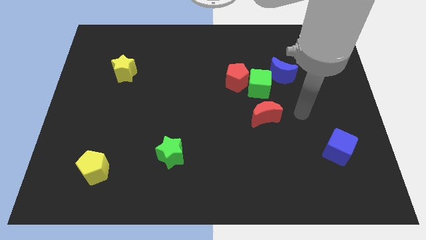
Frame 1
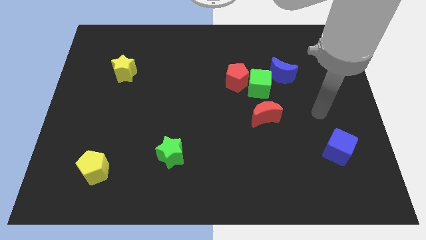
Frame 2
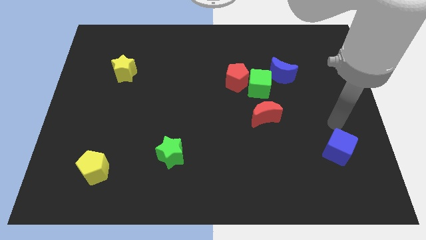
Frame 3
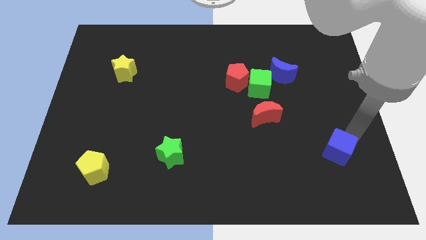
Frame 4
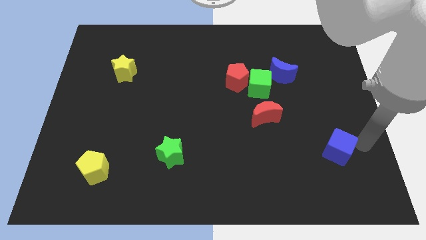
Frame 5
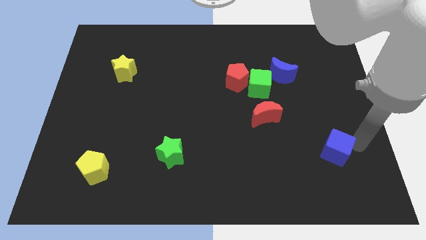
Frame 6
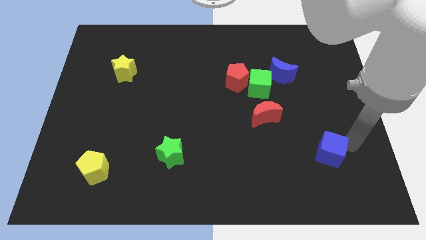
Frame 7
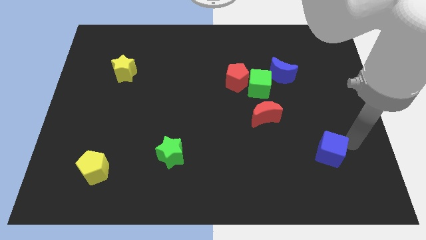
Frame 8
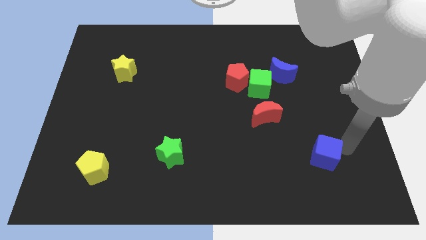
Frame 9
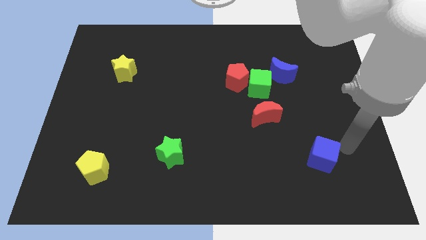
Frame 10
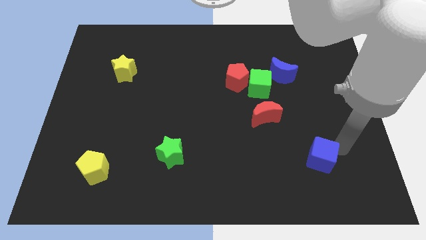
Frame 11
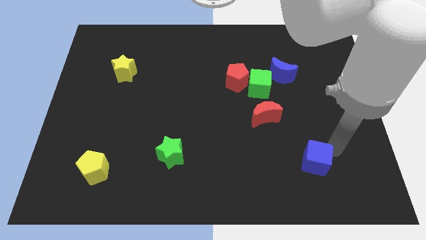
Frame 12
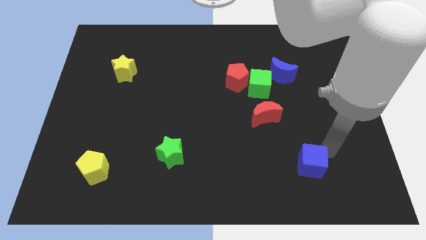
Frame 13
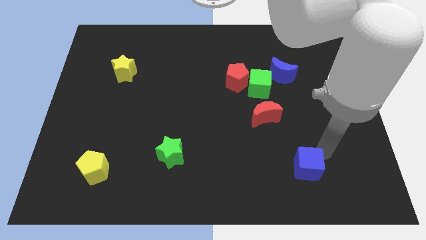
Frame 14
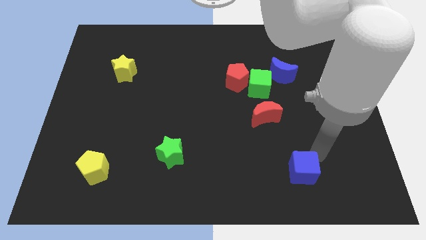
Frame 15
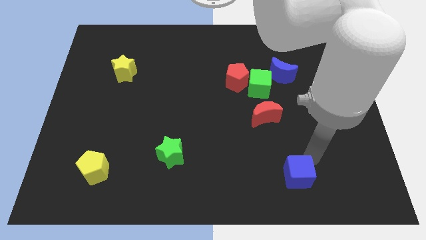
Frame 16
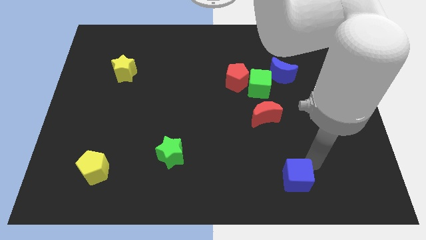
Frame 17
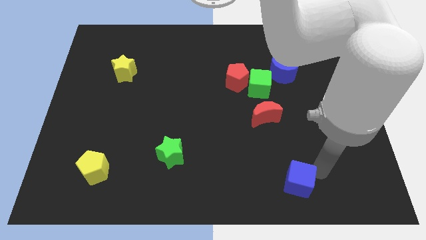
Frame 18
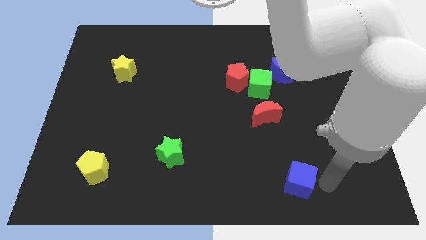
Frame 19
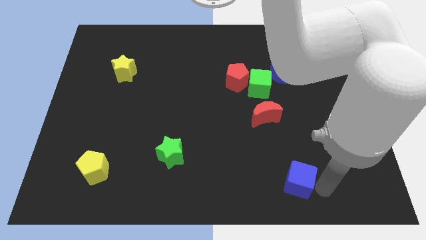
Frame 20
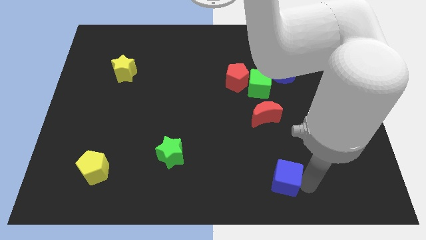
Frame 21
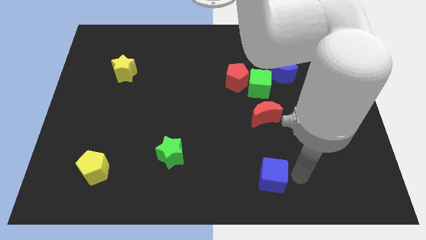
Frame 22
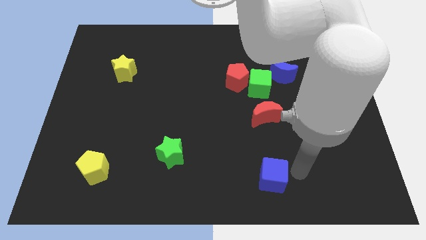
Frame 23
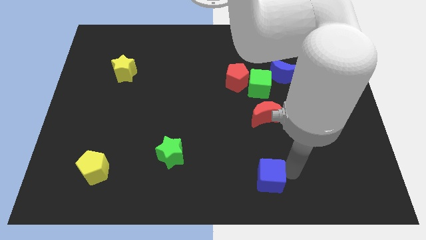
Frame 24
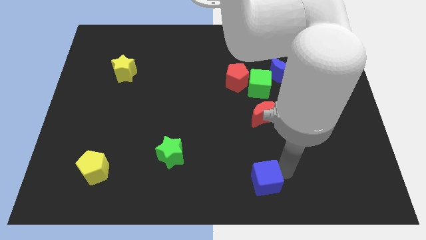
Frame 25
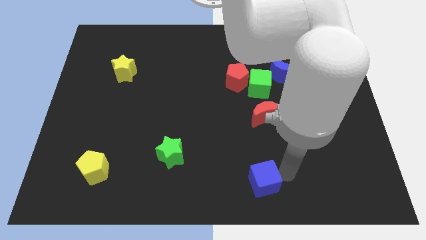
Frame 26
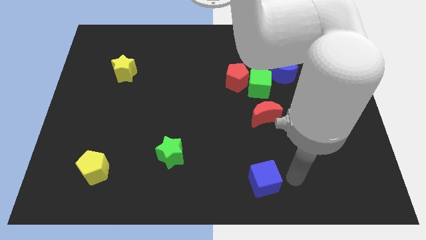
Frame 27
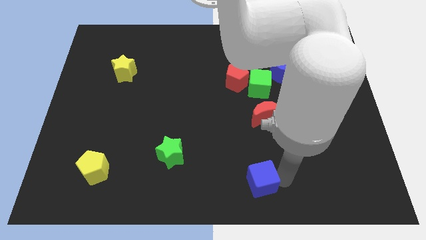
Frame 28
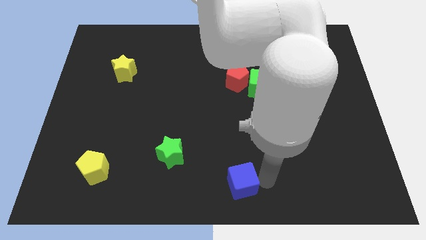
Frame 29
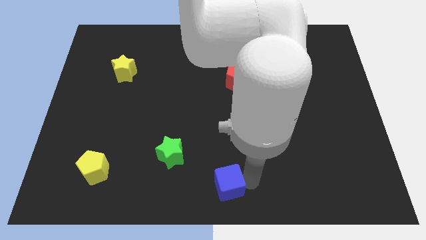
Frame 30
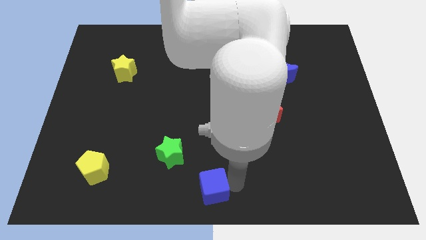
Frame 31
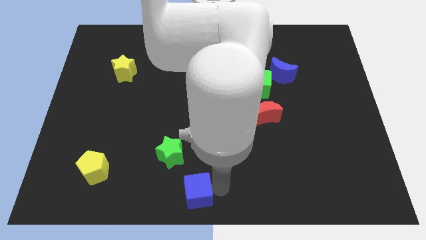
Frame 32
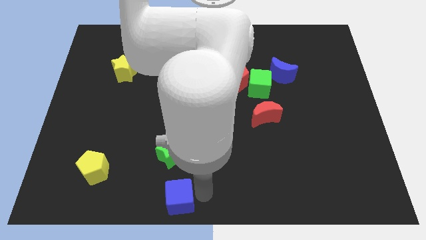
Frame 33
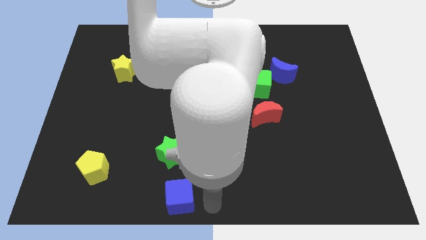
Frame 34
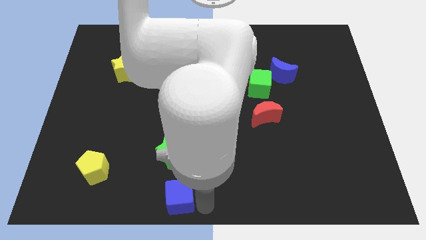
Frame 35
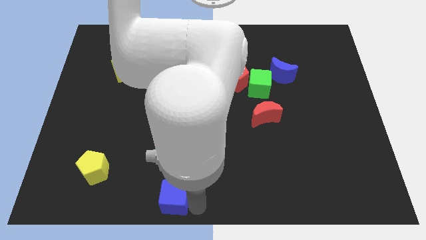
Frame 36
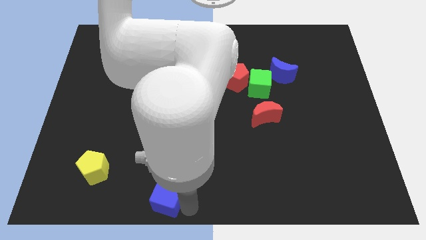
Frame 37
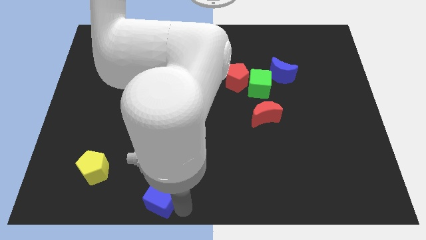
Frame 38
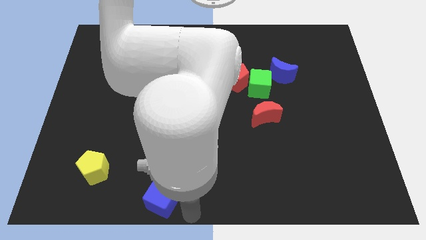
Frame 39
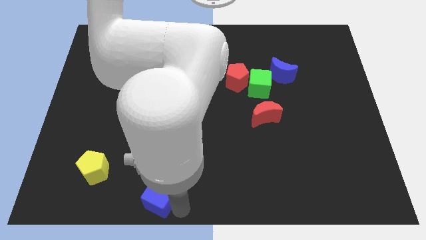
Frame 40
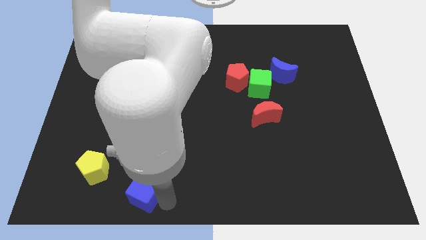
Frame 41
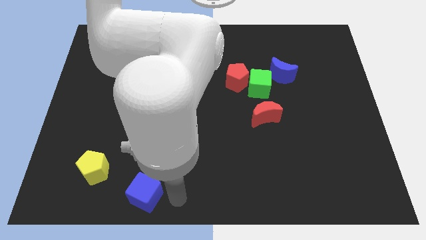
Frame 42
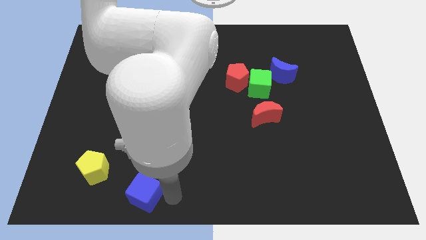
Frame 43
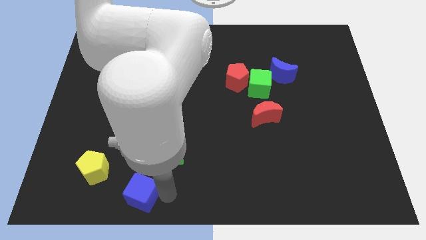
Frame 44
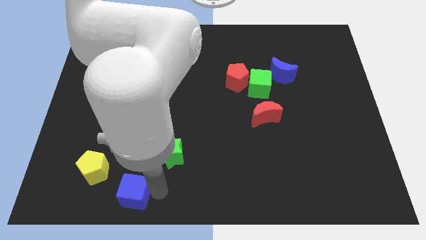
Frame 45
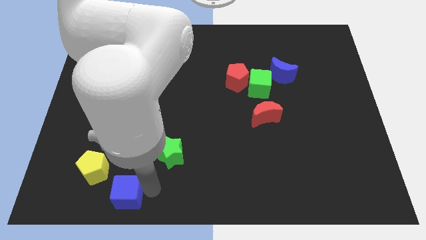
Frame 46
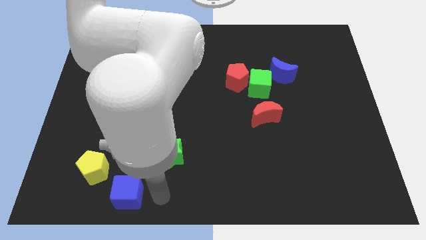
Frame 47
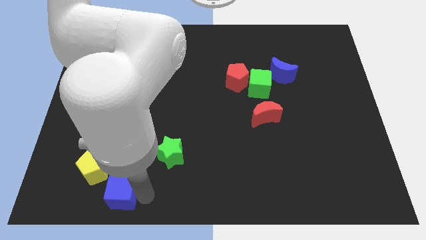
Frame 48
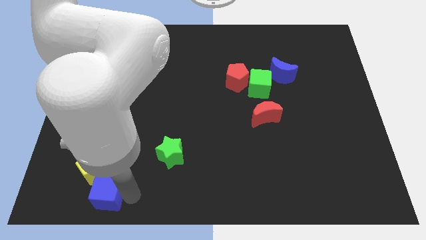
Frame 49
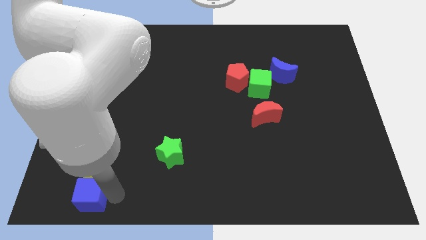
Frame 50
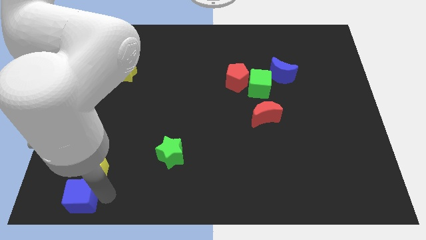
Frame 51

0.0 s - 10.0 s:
move the blue cube to the bottom left corner

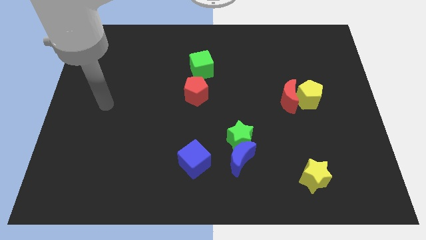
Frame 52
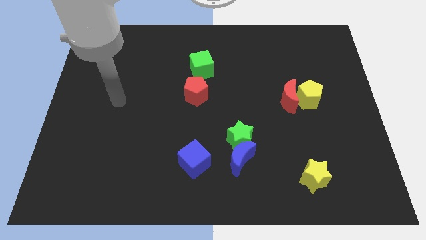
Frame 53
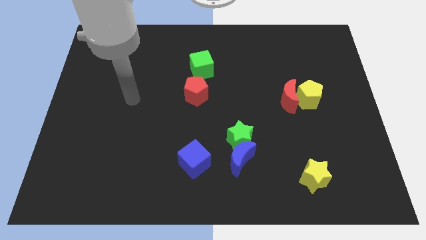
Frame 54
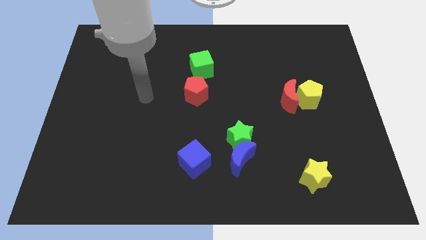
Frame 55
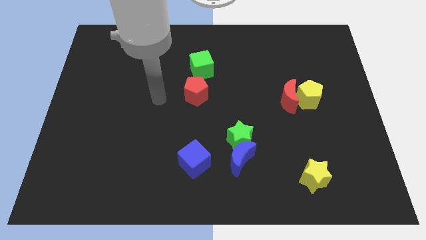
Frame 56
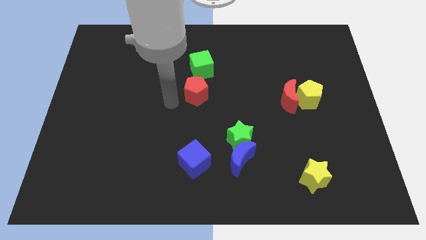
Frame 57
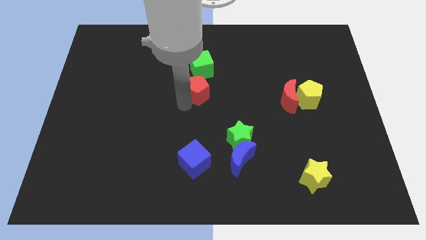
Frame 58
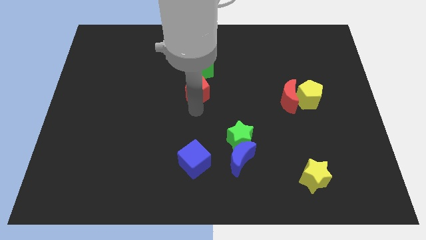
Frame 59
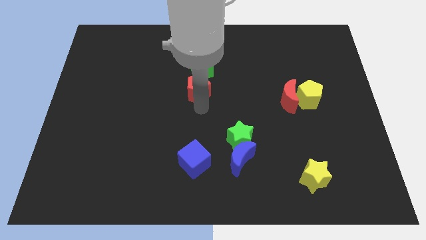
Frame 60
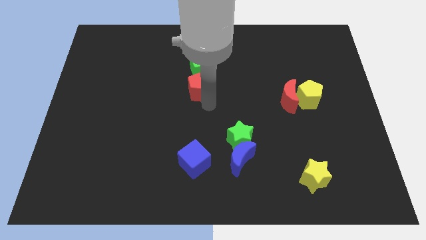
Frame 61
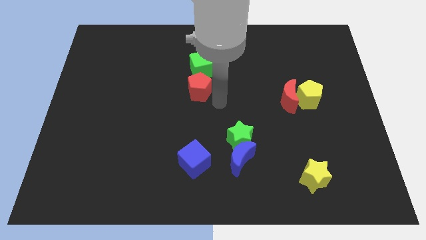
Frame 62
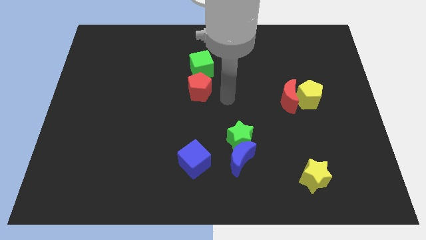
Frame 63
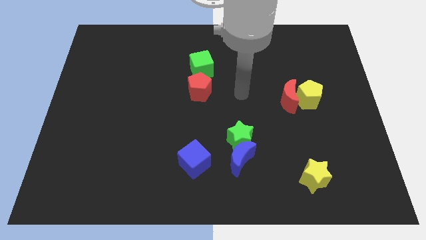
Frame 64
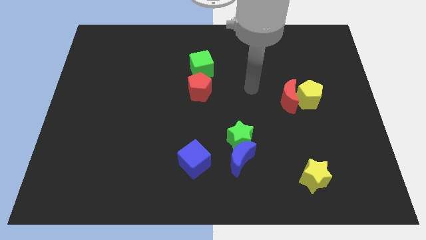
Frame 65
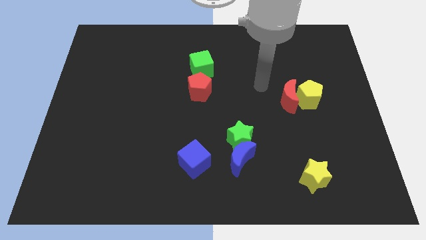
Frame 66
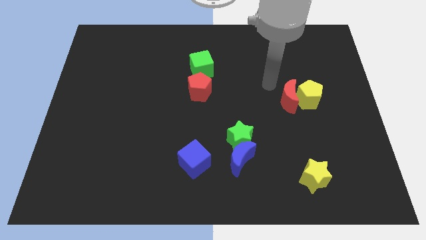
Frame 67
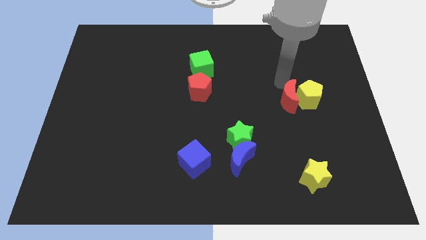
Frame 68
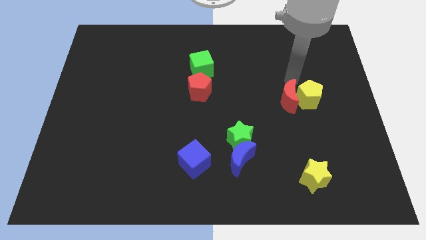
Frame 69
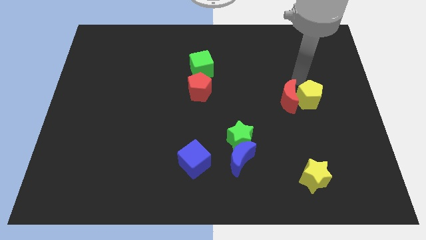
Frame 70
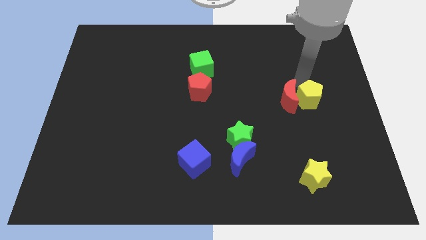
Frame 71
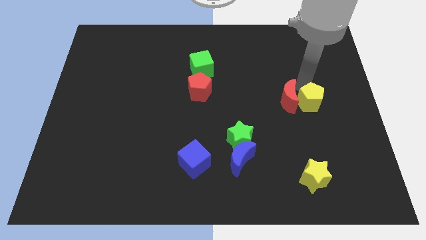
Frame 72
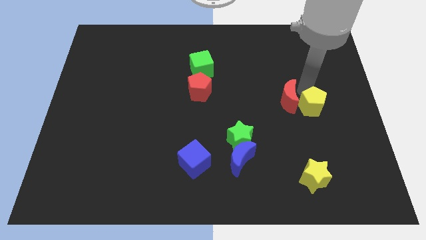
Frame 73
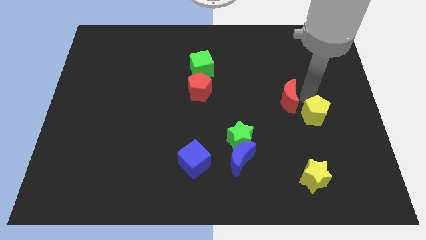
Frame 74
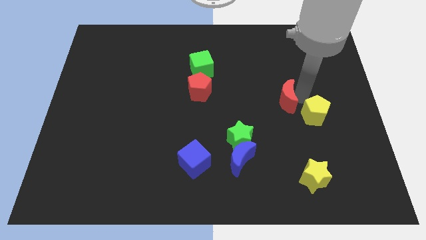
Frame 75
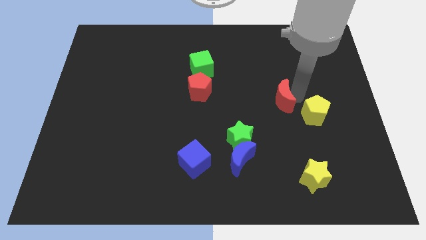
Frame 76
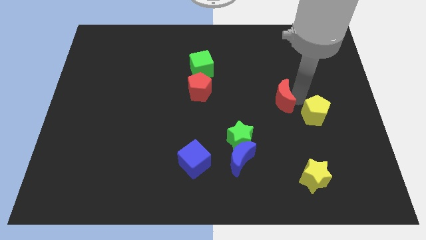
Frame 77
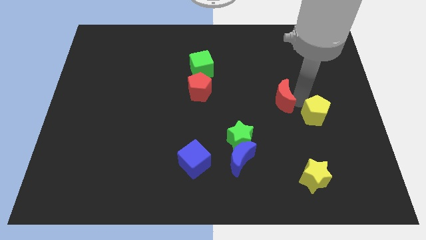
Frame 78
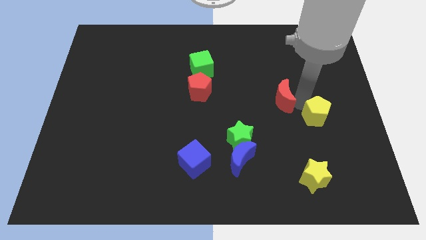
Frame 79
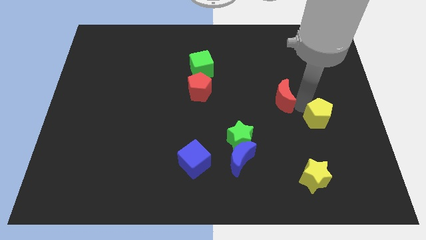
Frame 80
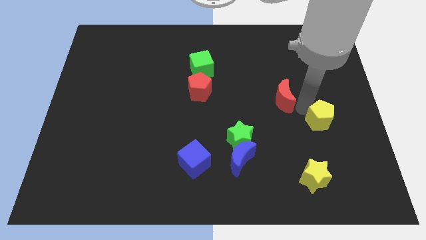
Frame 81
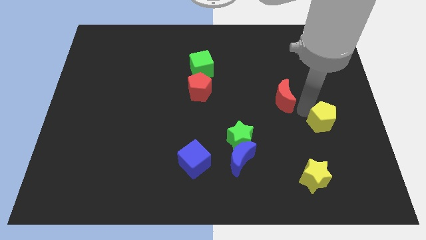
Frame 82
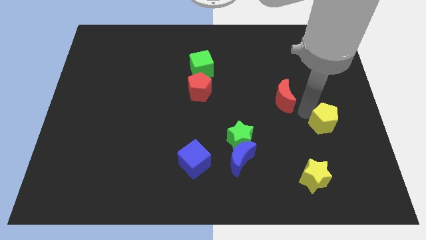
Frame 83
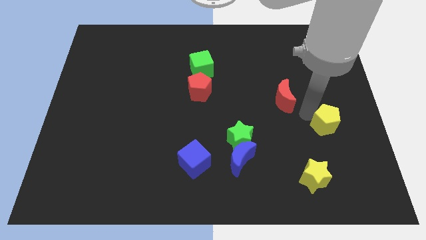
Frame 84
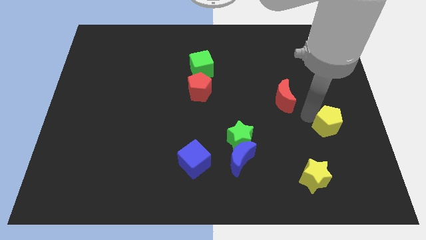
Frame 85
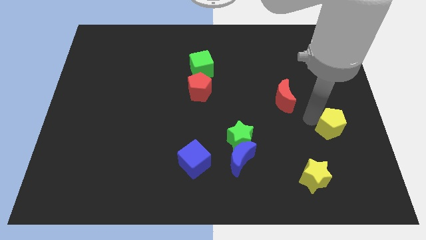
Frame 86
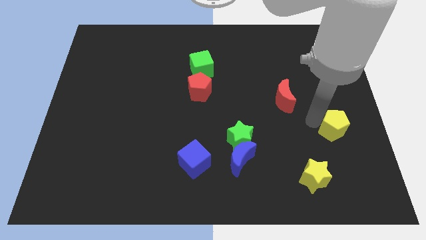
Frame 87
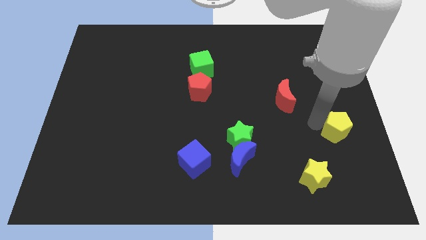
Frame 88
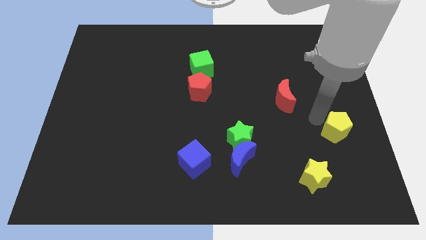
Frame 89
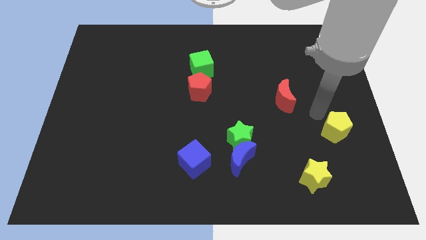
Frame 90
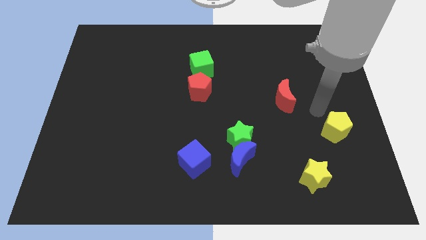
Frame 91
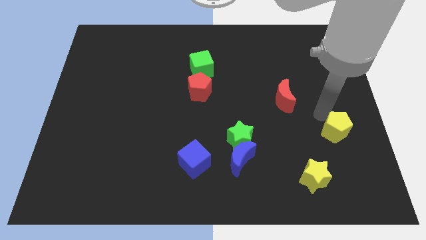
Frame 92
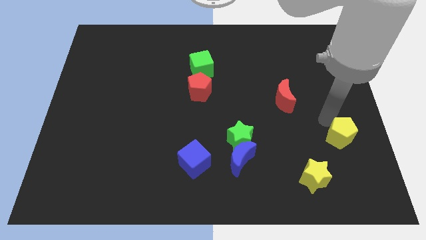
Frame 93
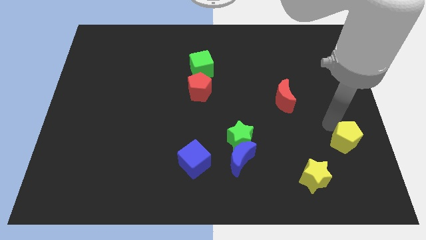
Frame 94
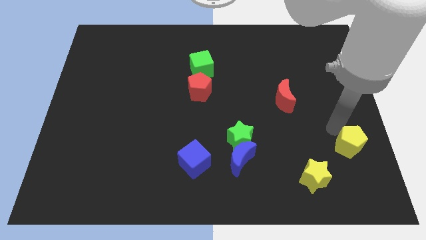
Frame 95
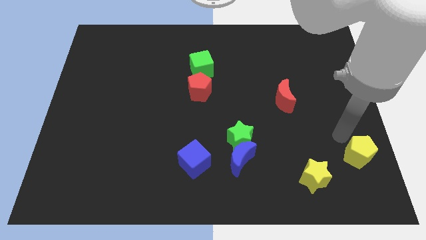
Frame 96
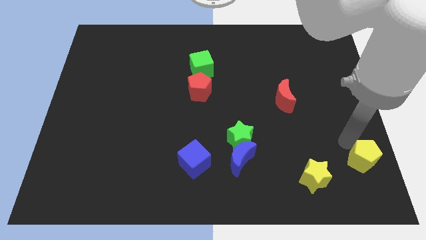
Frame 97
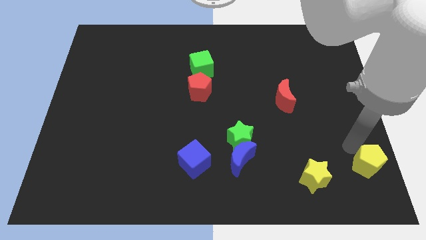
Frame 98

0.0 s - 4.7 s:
move the yellow pentagon to the bottom right
